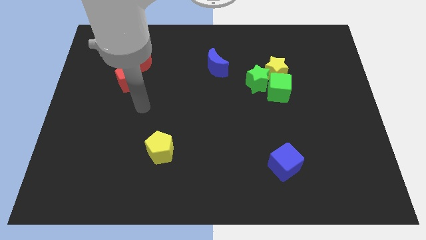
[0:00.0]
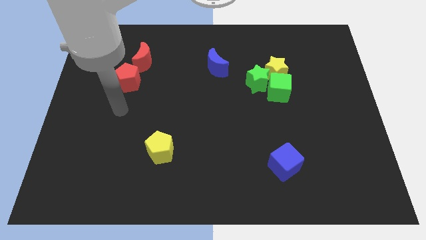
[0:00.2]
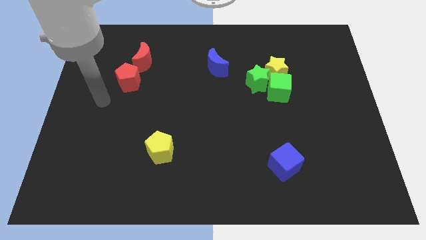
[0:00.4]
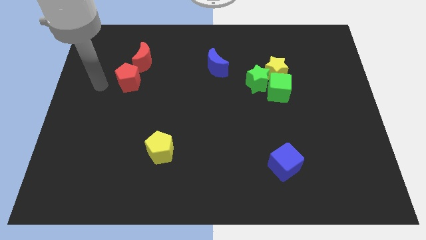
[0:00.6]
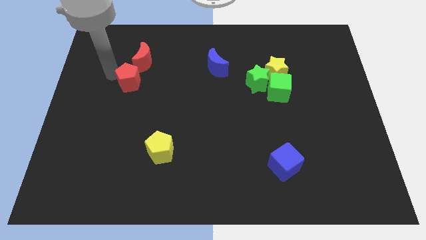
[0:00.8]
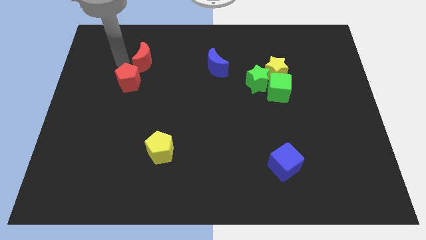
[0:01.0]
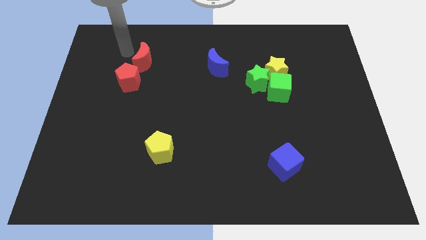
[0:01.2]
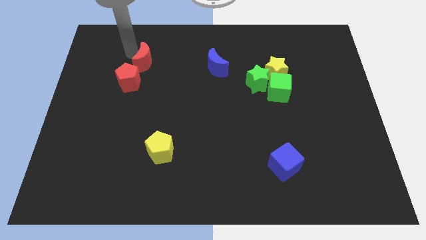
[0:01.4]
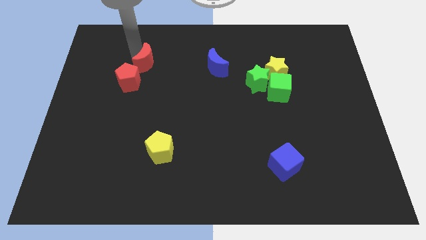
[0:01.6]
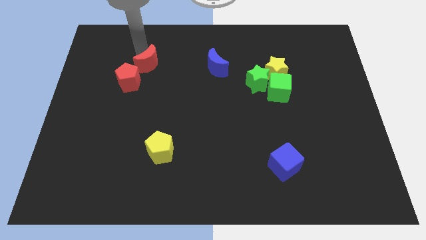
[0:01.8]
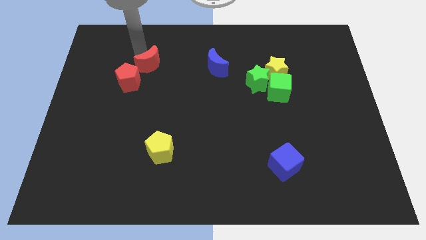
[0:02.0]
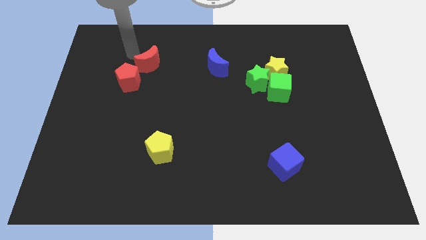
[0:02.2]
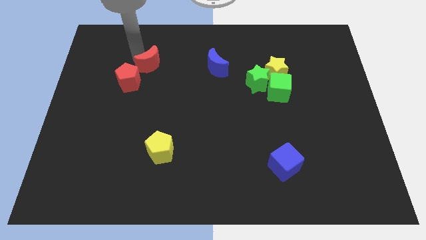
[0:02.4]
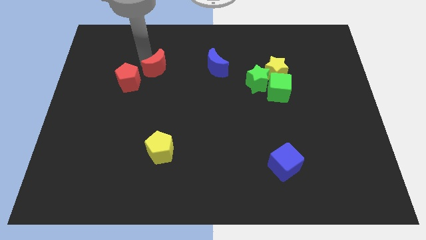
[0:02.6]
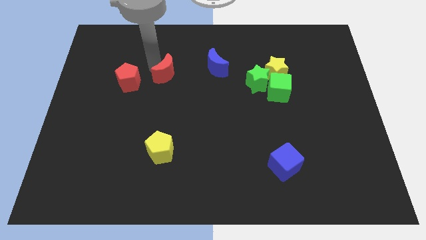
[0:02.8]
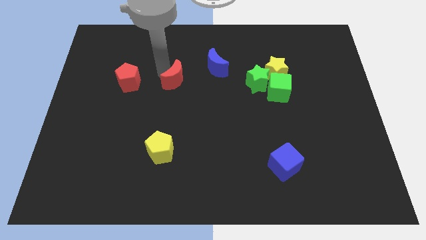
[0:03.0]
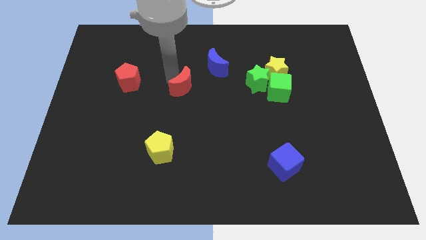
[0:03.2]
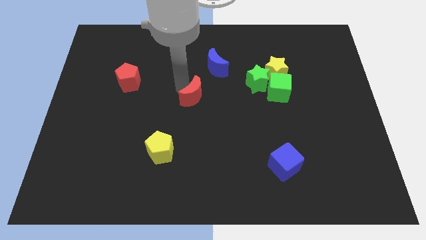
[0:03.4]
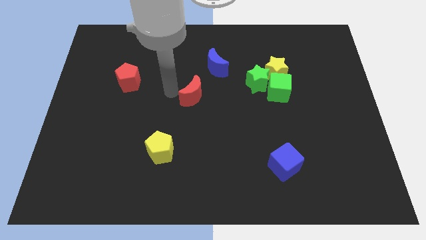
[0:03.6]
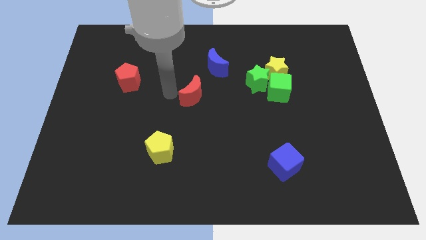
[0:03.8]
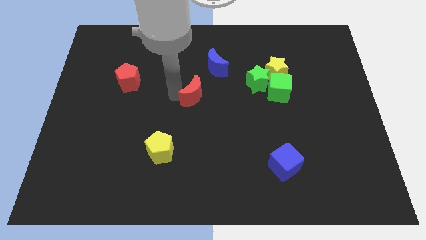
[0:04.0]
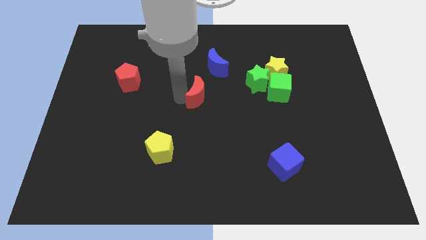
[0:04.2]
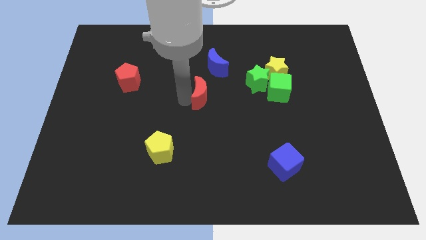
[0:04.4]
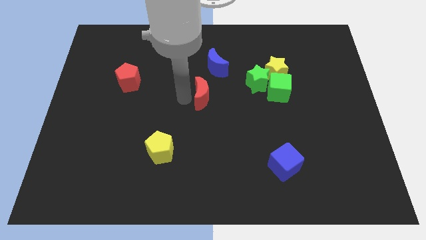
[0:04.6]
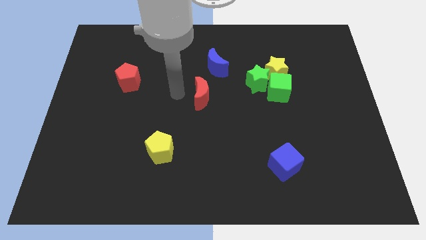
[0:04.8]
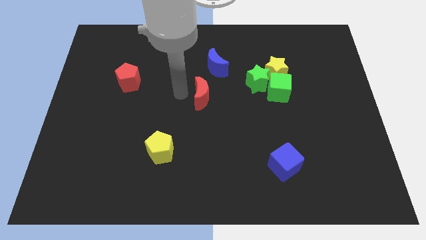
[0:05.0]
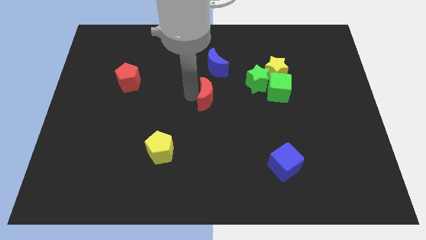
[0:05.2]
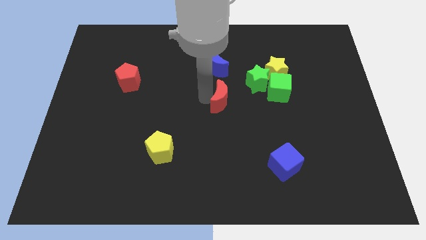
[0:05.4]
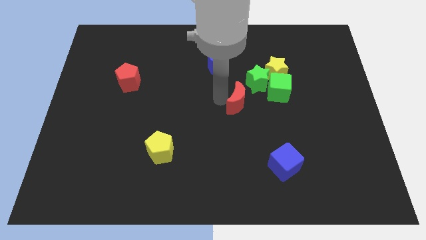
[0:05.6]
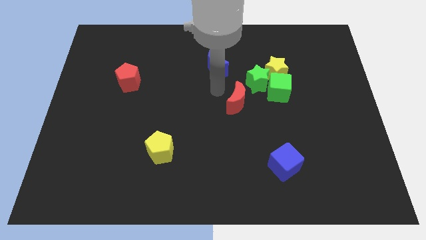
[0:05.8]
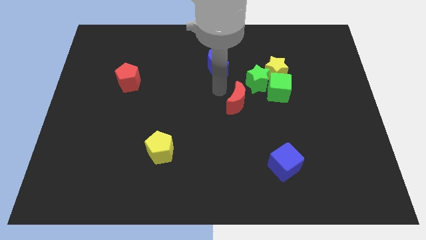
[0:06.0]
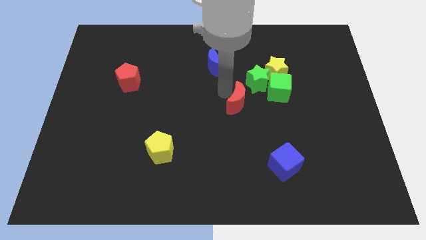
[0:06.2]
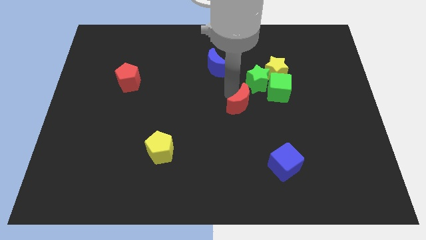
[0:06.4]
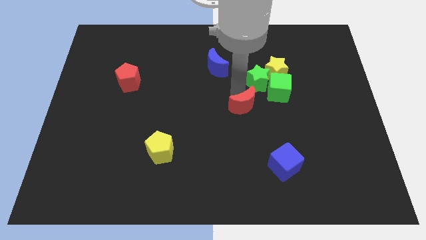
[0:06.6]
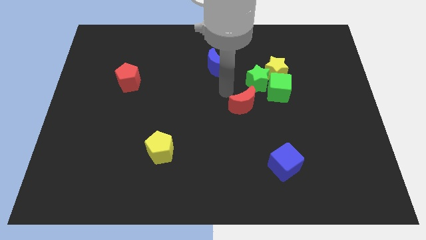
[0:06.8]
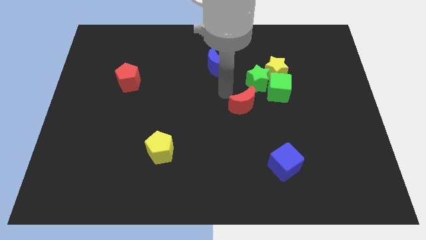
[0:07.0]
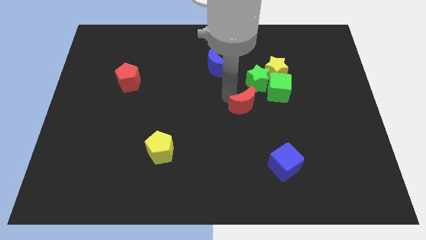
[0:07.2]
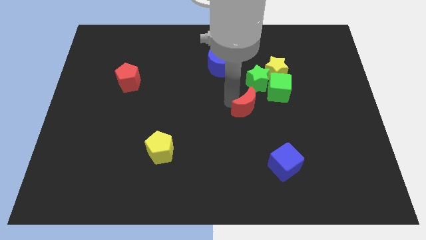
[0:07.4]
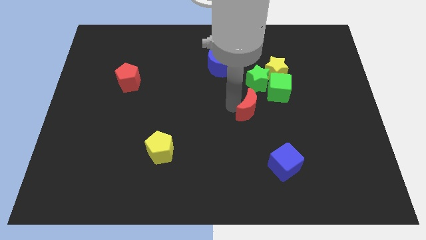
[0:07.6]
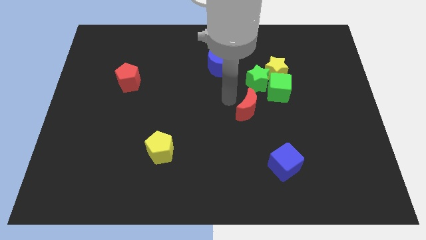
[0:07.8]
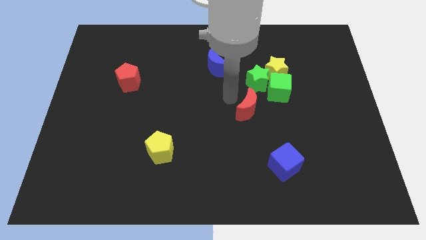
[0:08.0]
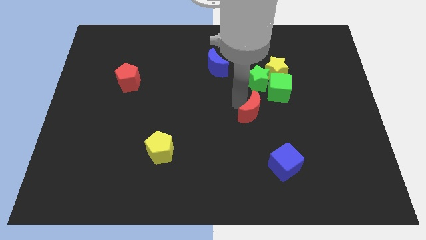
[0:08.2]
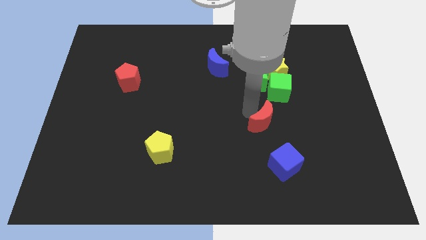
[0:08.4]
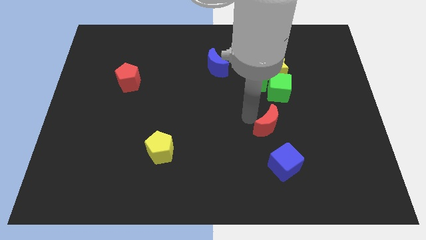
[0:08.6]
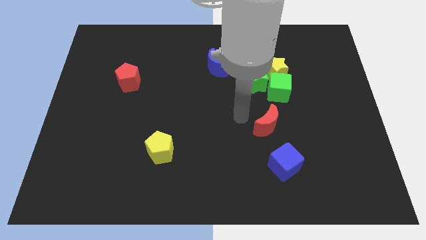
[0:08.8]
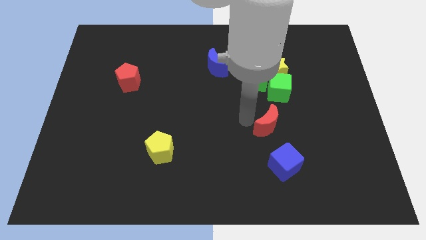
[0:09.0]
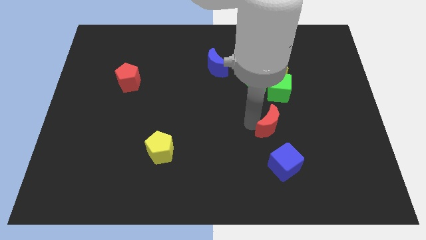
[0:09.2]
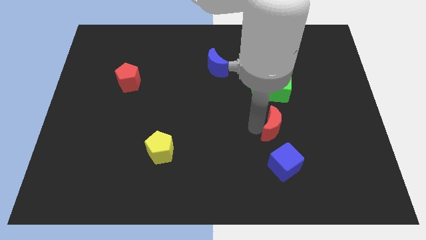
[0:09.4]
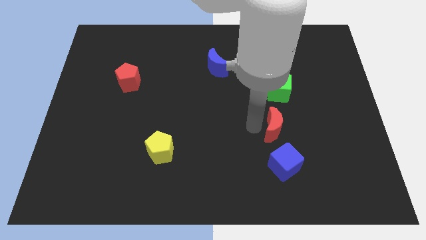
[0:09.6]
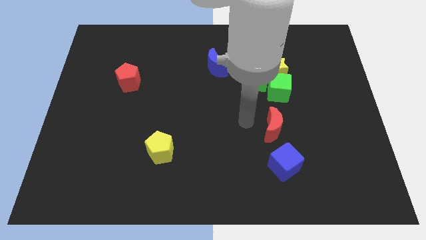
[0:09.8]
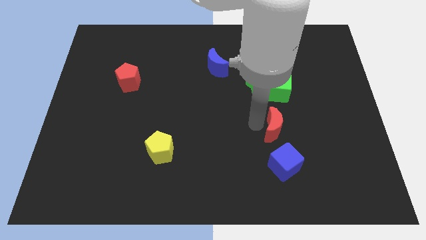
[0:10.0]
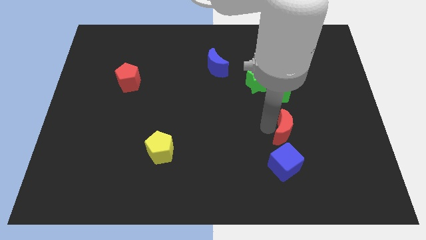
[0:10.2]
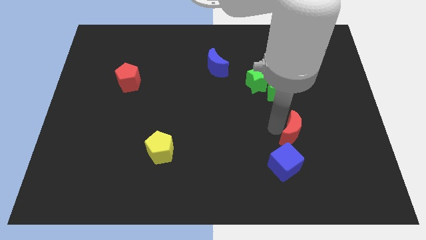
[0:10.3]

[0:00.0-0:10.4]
put the red moon to the top right of the blue cube
